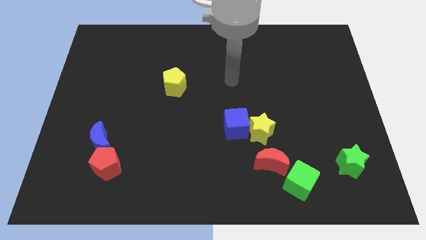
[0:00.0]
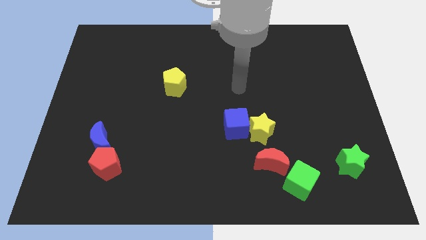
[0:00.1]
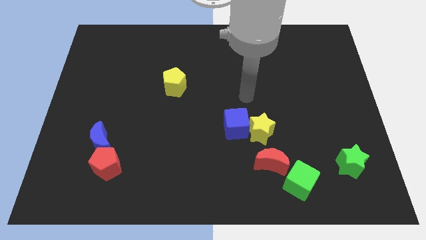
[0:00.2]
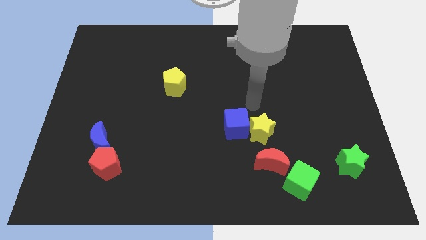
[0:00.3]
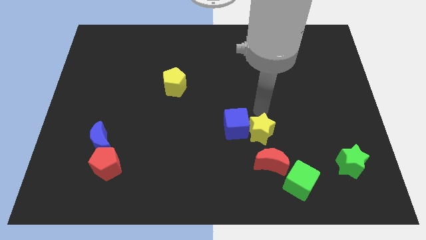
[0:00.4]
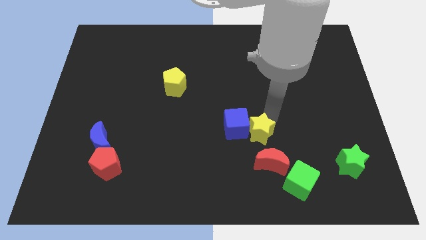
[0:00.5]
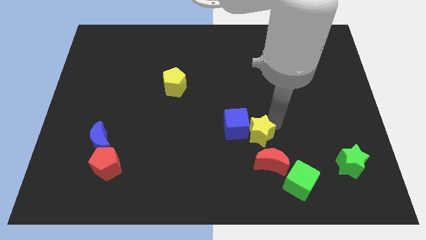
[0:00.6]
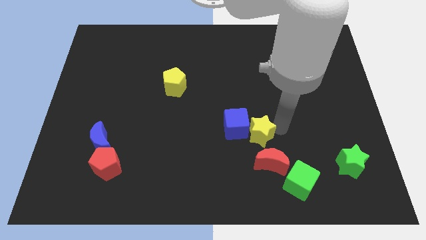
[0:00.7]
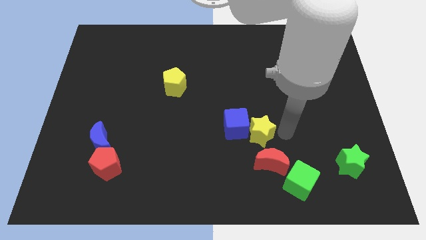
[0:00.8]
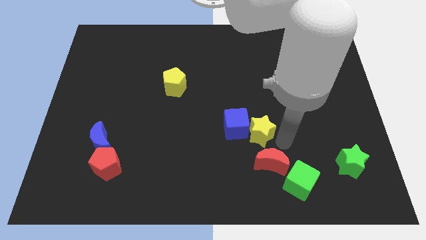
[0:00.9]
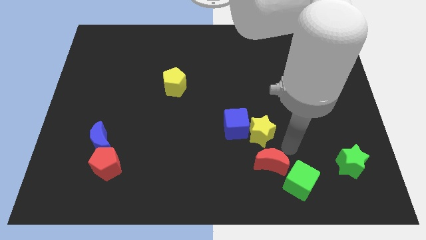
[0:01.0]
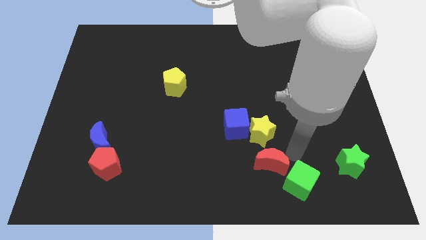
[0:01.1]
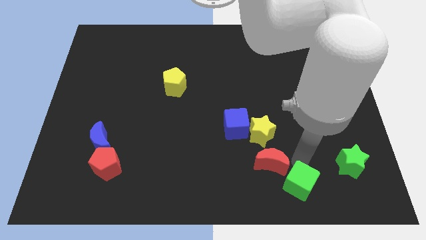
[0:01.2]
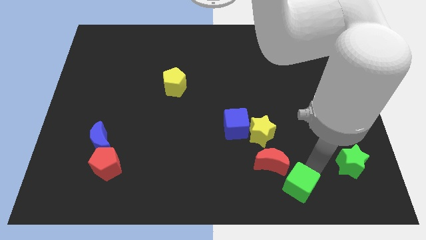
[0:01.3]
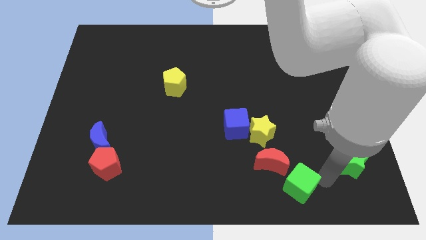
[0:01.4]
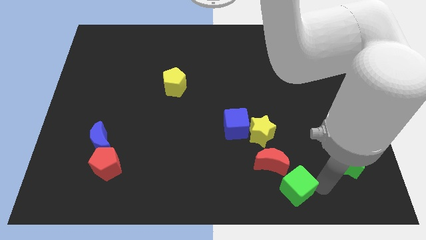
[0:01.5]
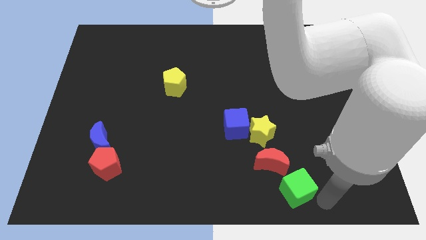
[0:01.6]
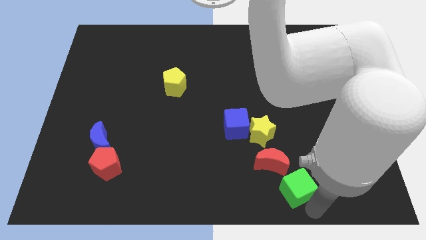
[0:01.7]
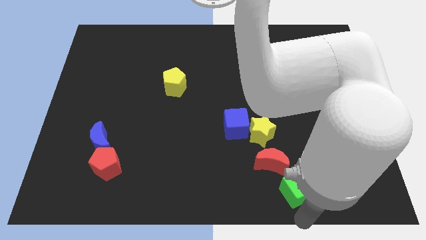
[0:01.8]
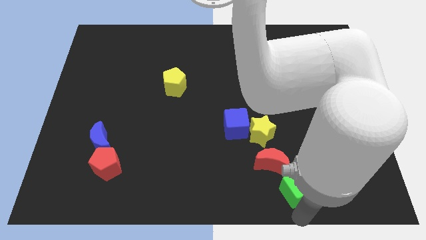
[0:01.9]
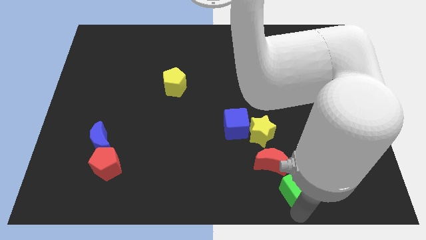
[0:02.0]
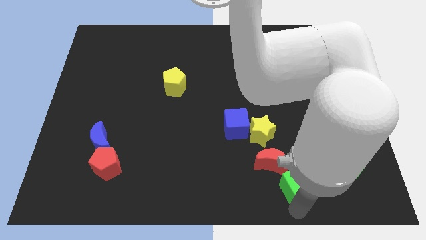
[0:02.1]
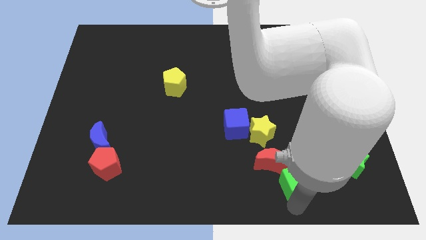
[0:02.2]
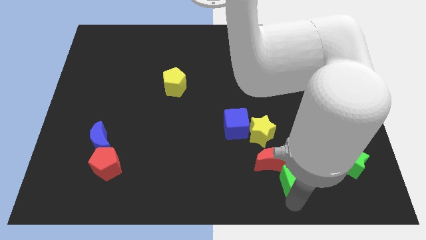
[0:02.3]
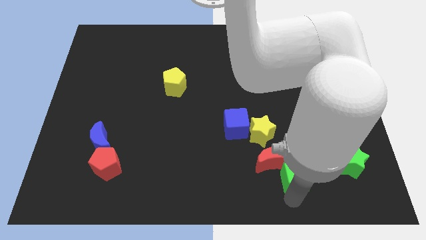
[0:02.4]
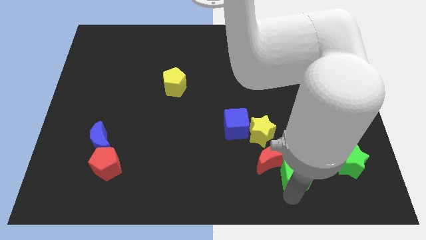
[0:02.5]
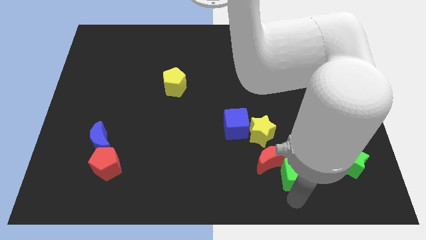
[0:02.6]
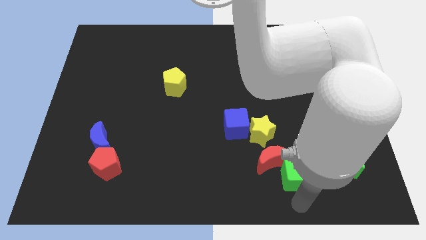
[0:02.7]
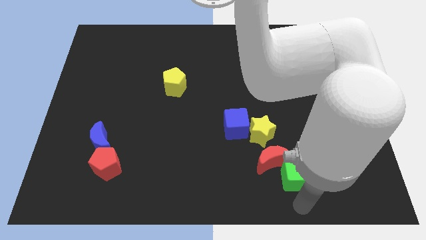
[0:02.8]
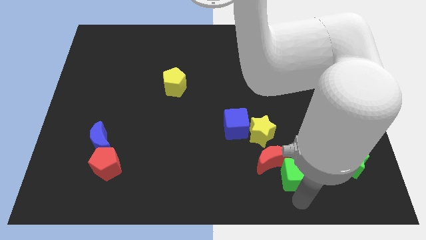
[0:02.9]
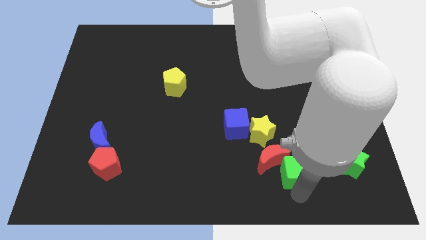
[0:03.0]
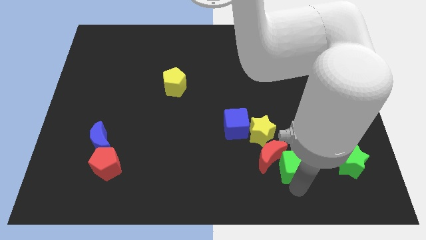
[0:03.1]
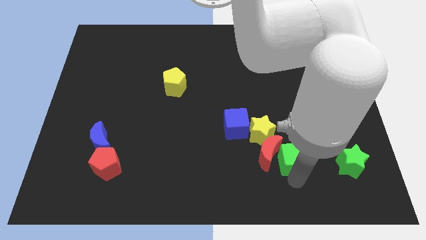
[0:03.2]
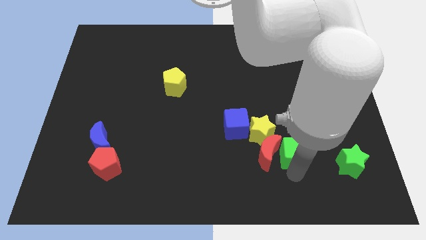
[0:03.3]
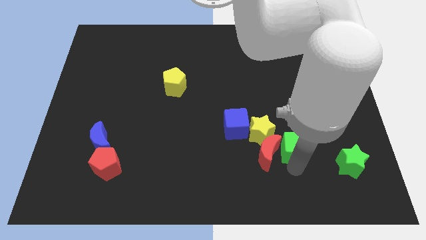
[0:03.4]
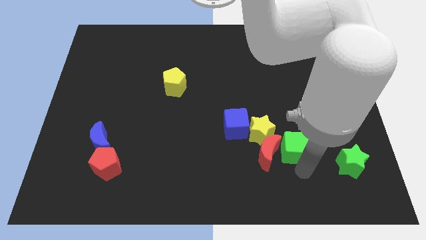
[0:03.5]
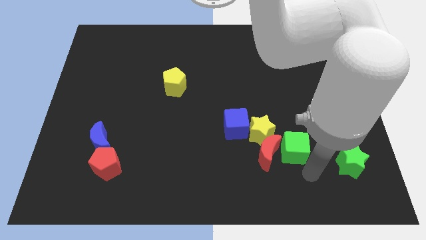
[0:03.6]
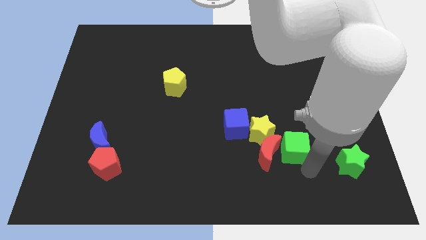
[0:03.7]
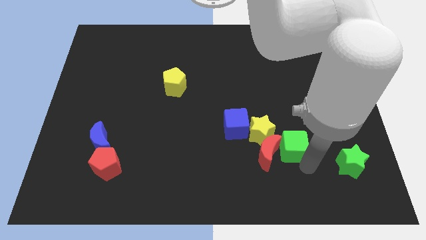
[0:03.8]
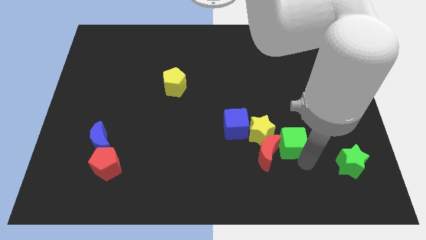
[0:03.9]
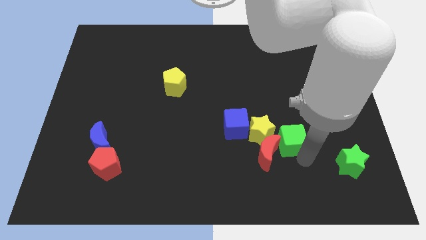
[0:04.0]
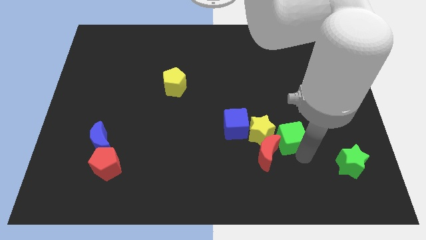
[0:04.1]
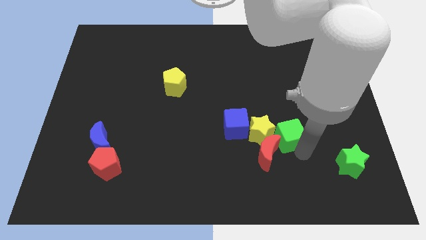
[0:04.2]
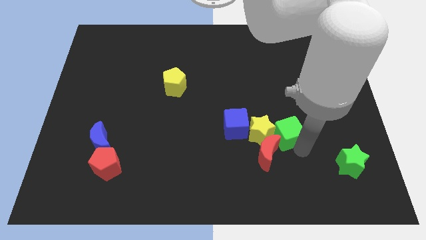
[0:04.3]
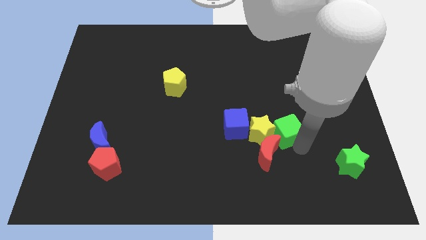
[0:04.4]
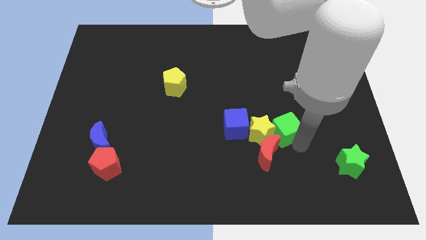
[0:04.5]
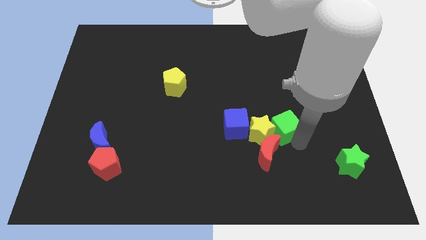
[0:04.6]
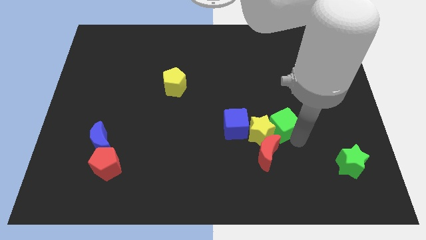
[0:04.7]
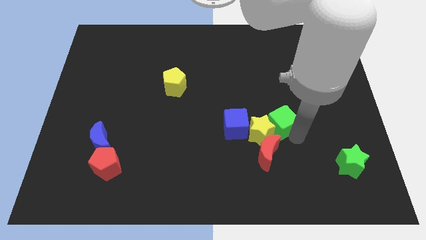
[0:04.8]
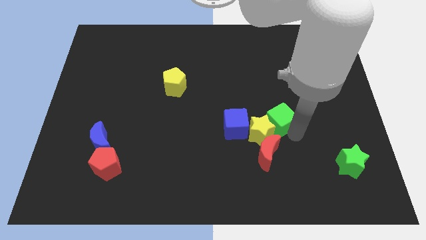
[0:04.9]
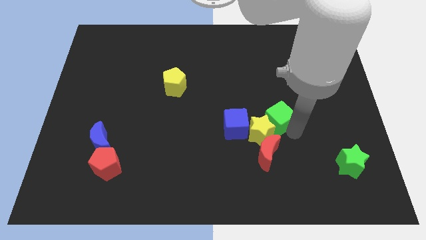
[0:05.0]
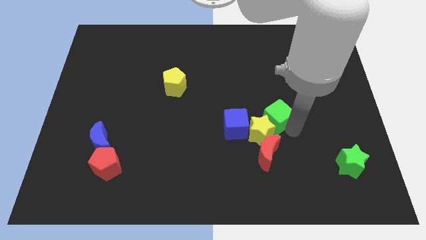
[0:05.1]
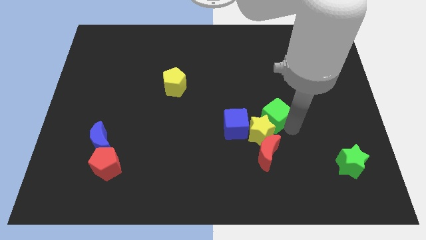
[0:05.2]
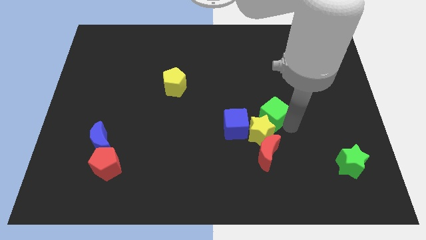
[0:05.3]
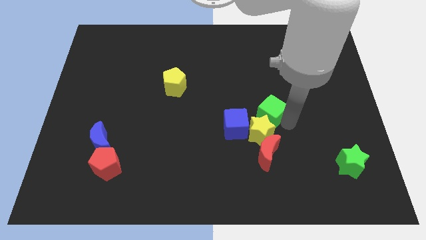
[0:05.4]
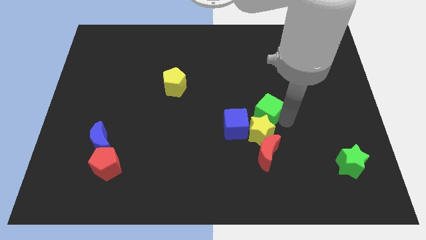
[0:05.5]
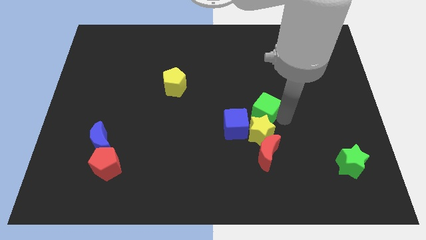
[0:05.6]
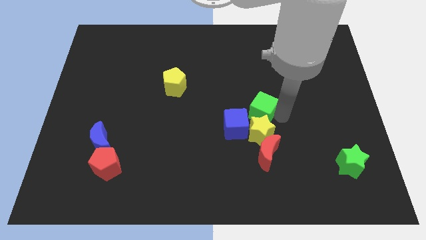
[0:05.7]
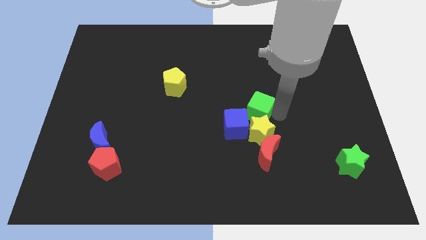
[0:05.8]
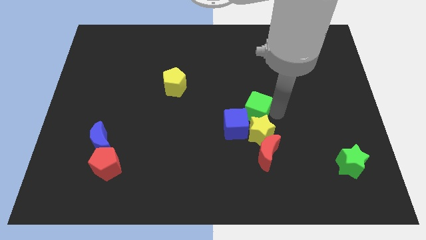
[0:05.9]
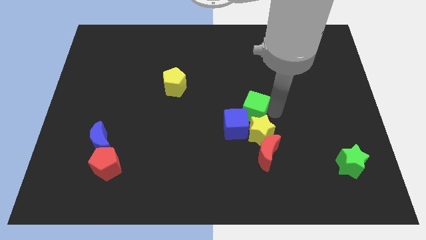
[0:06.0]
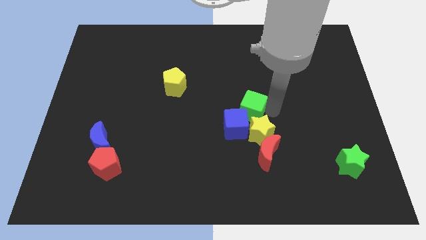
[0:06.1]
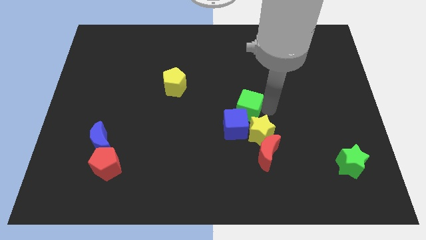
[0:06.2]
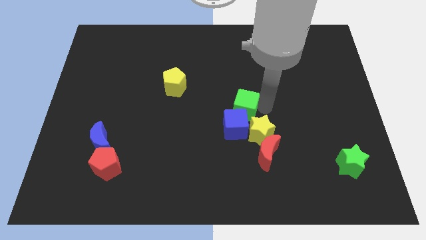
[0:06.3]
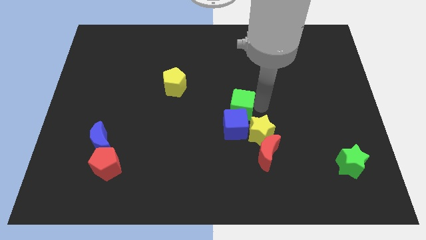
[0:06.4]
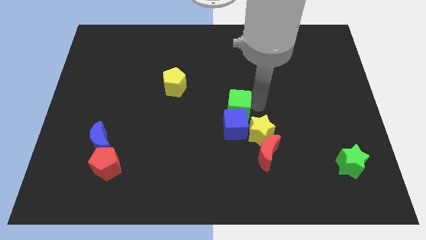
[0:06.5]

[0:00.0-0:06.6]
slide the green cube to the top left side of the blue cube

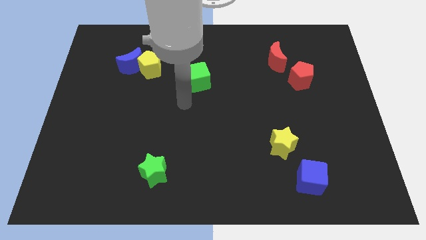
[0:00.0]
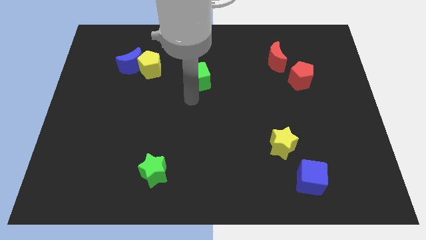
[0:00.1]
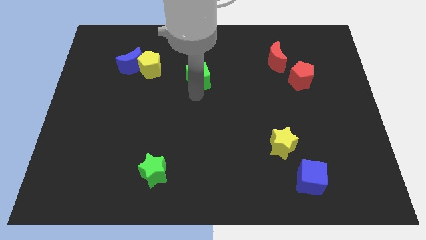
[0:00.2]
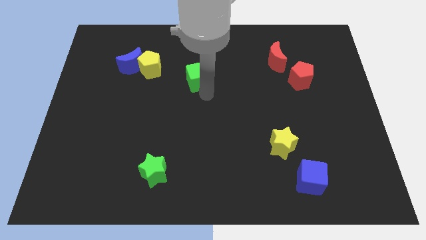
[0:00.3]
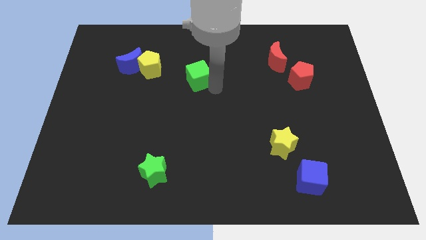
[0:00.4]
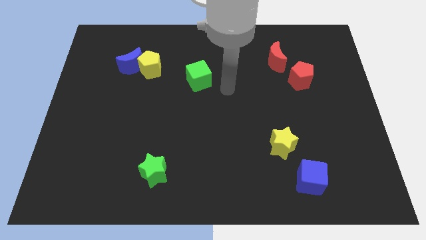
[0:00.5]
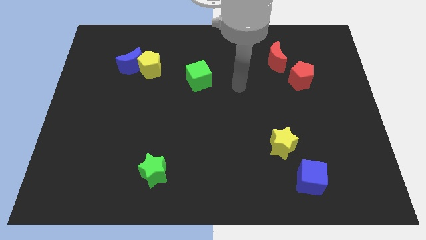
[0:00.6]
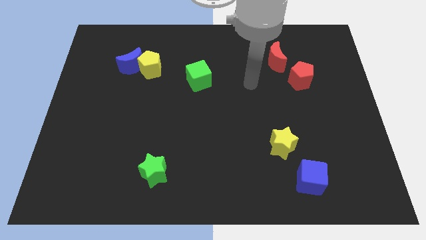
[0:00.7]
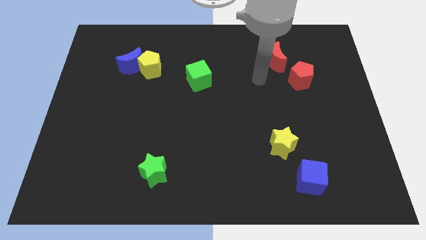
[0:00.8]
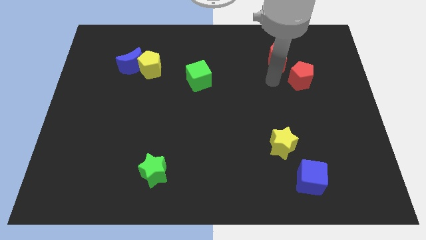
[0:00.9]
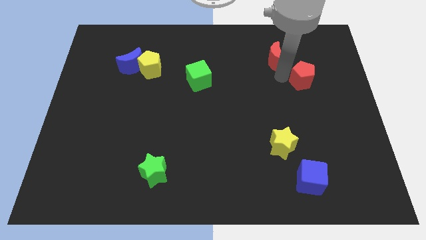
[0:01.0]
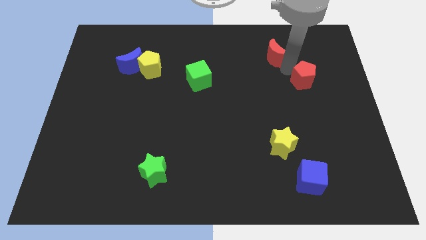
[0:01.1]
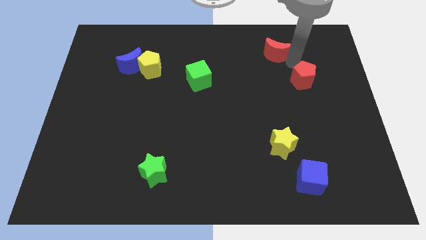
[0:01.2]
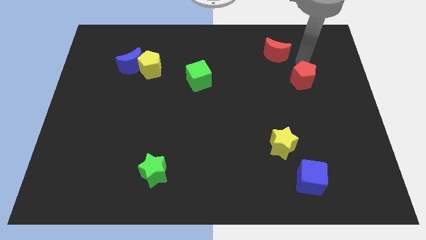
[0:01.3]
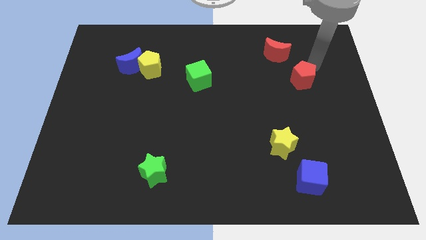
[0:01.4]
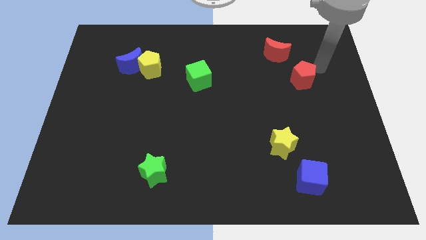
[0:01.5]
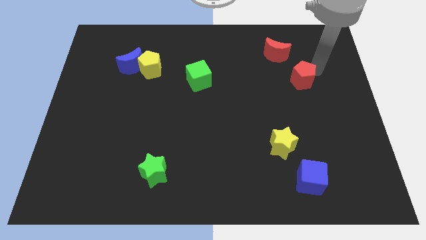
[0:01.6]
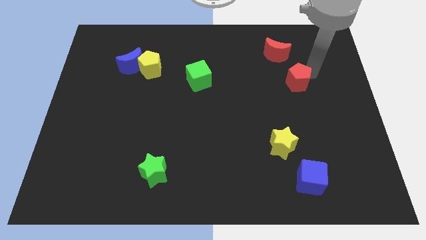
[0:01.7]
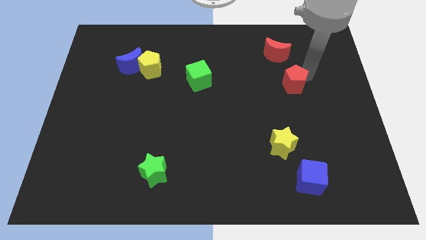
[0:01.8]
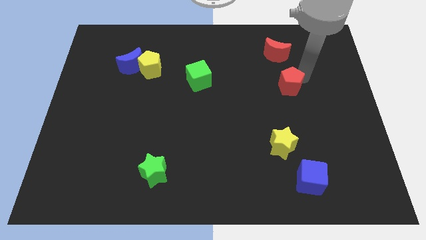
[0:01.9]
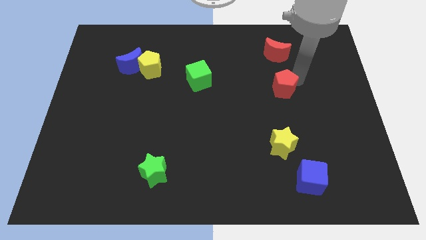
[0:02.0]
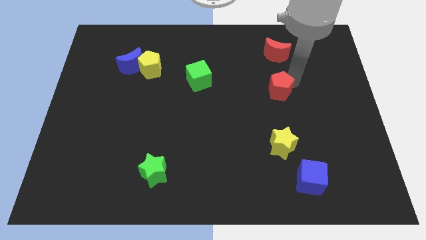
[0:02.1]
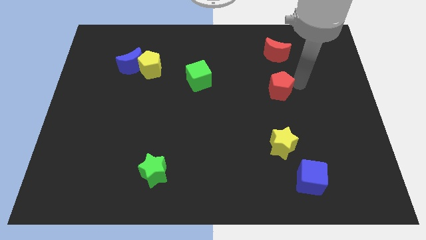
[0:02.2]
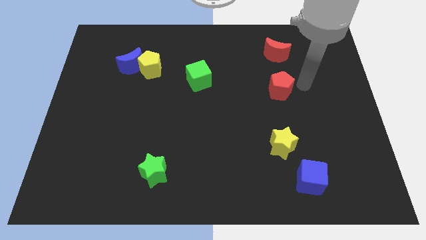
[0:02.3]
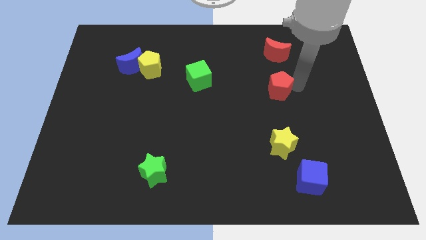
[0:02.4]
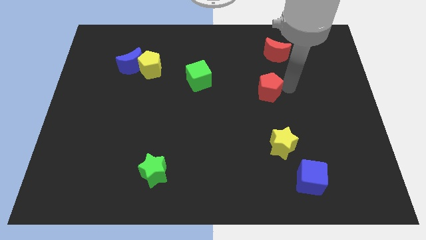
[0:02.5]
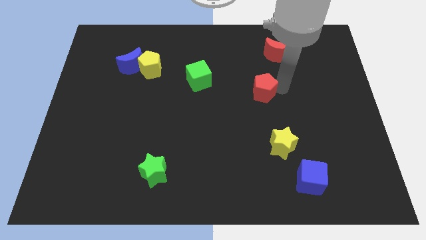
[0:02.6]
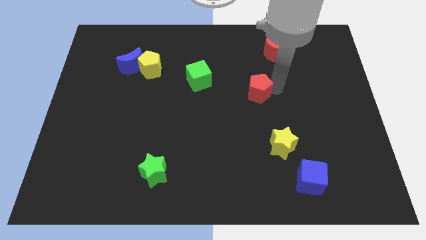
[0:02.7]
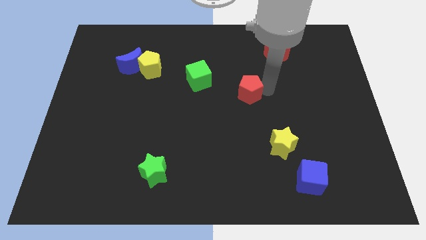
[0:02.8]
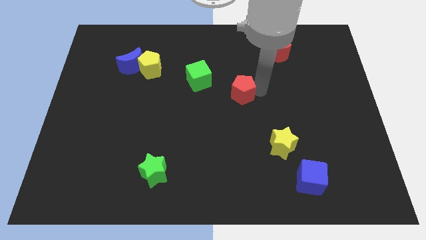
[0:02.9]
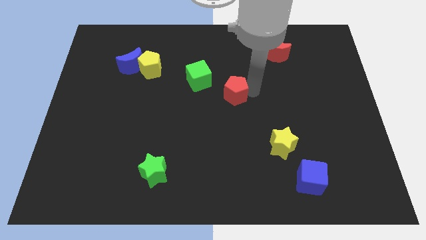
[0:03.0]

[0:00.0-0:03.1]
put the red pentagon to the bottom right side of the green cube
